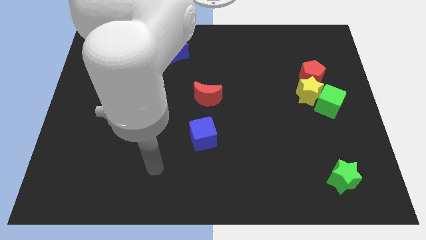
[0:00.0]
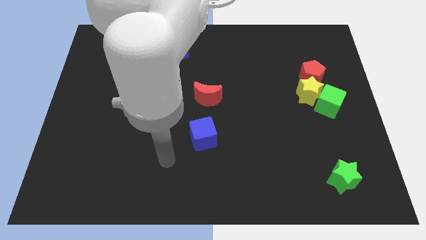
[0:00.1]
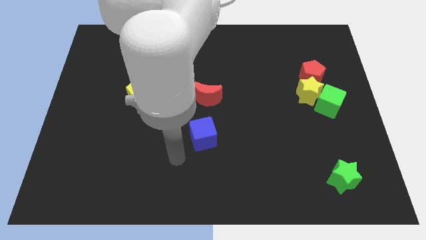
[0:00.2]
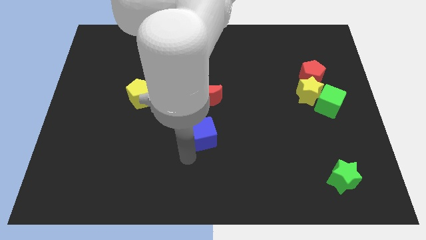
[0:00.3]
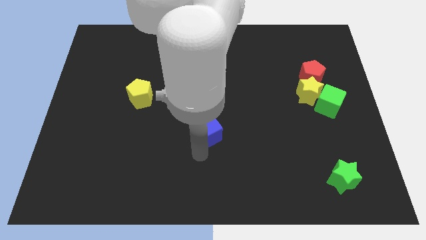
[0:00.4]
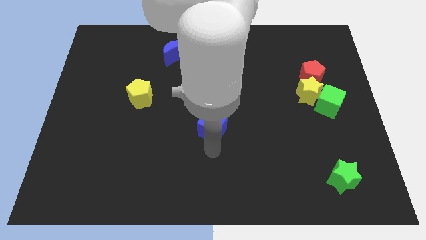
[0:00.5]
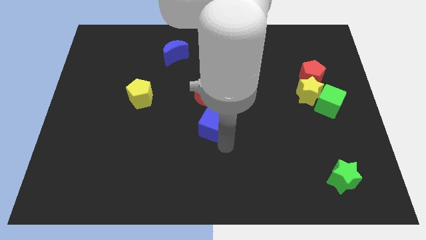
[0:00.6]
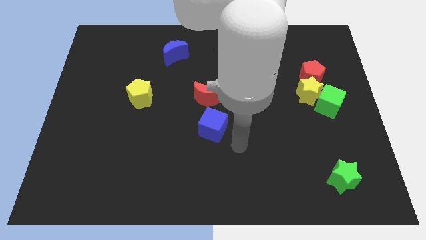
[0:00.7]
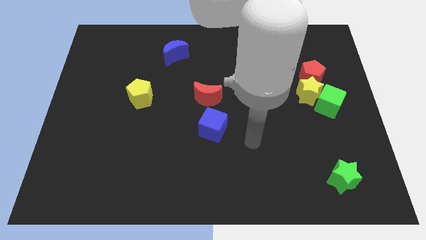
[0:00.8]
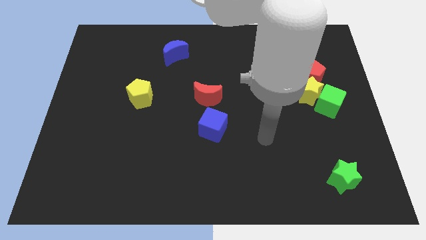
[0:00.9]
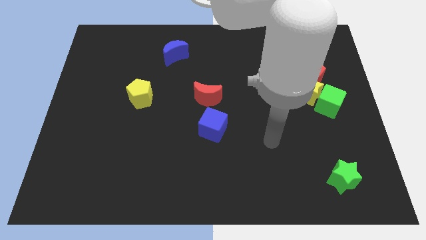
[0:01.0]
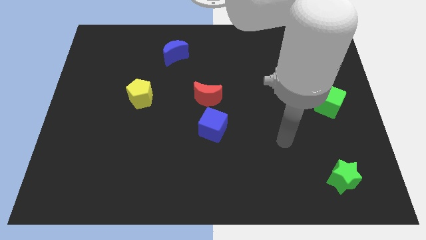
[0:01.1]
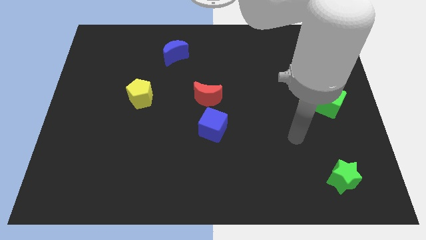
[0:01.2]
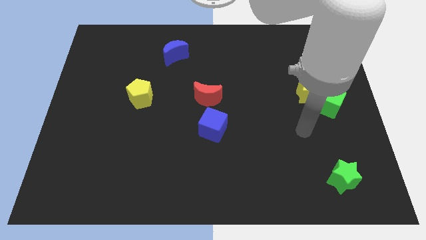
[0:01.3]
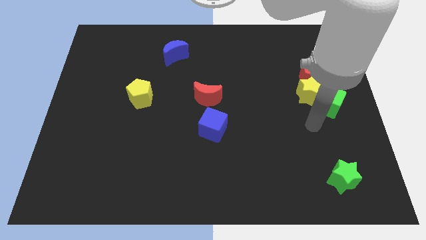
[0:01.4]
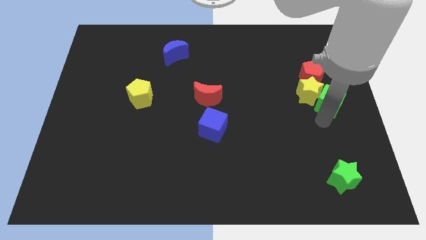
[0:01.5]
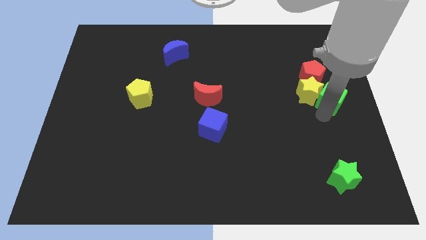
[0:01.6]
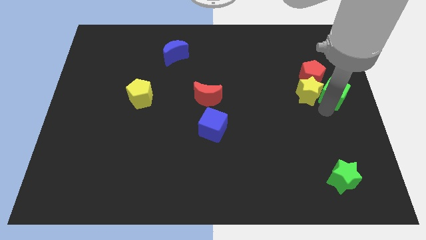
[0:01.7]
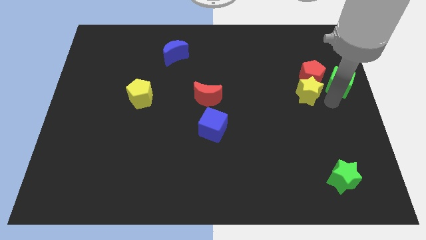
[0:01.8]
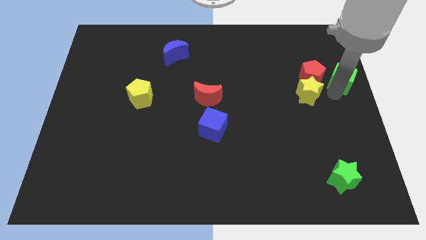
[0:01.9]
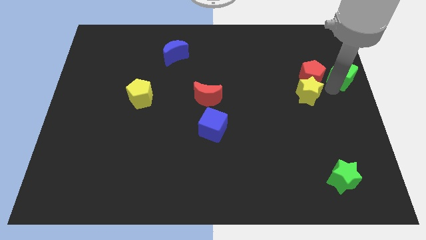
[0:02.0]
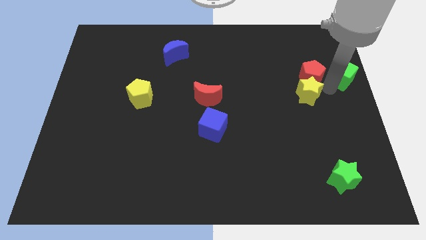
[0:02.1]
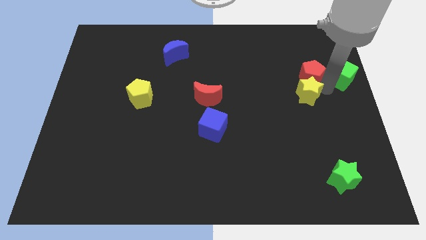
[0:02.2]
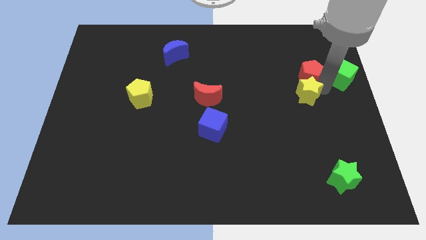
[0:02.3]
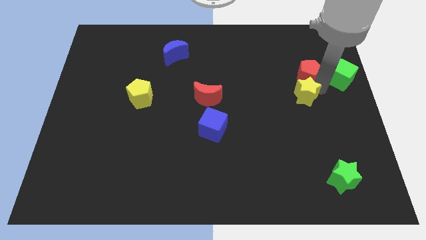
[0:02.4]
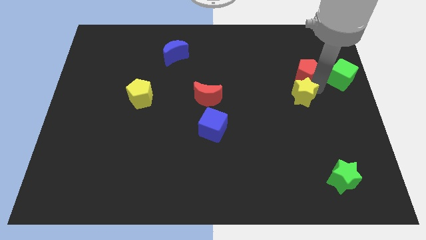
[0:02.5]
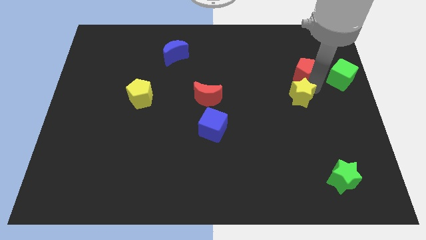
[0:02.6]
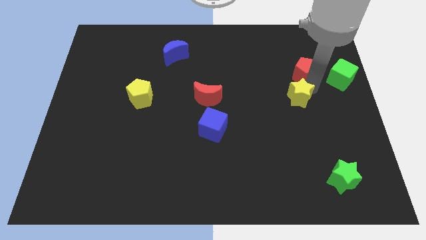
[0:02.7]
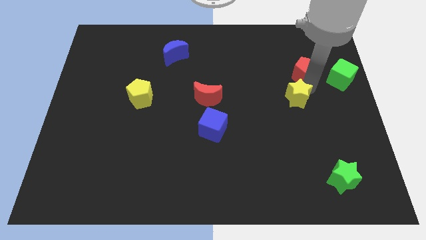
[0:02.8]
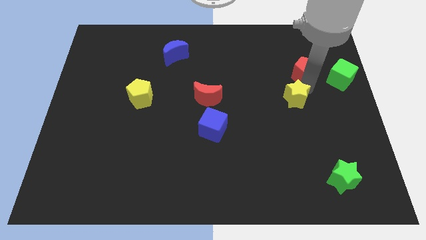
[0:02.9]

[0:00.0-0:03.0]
pull the yellow star apart from the red pentagon and green cube

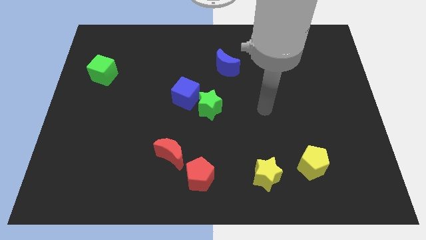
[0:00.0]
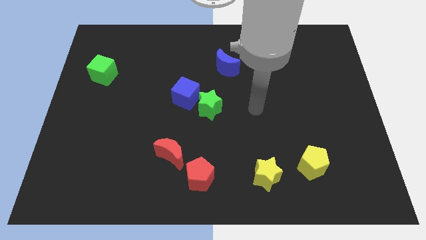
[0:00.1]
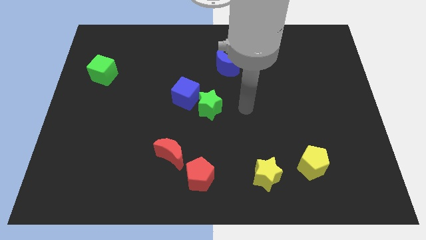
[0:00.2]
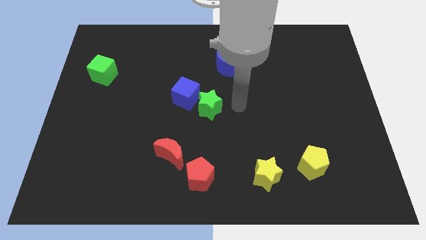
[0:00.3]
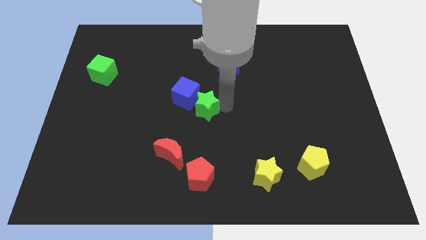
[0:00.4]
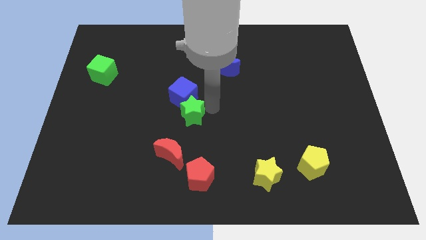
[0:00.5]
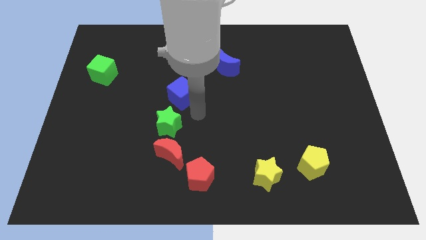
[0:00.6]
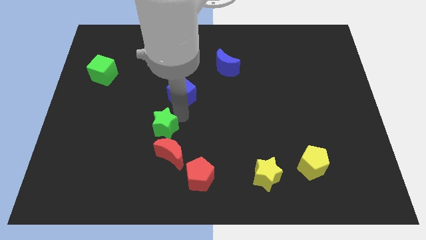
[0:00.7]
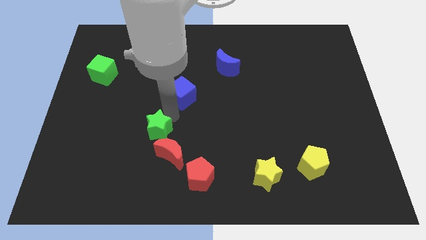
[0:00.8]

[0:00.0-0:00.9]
separate the blue cube from the green star

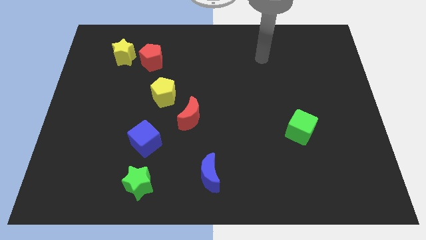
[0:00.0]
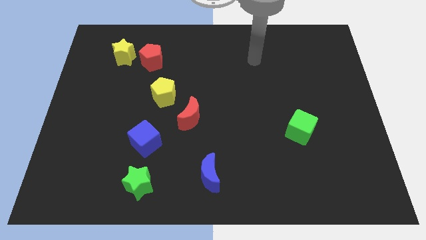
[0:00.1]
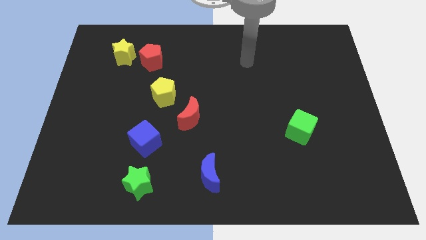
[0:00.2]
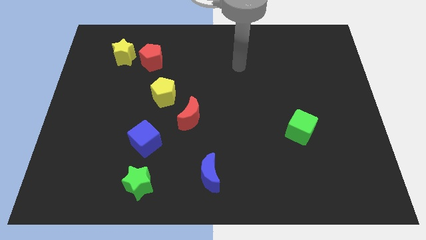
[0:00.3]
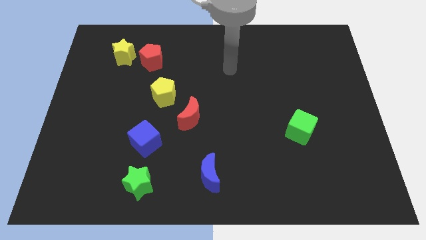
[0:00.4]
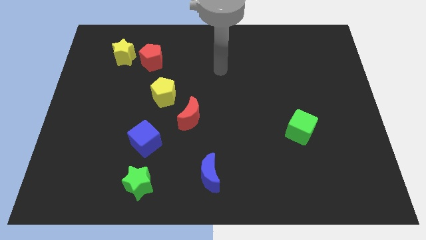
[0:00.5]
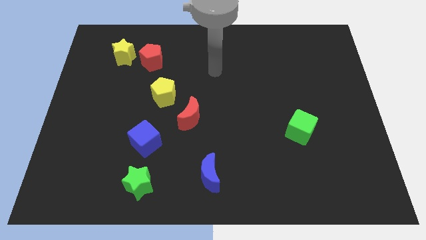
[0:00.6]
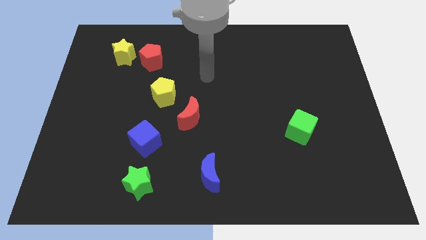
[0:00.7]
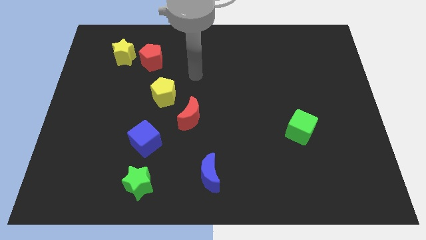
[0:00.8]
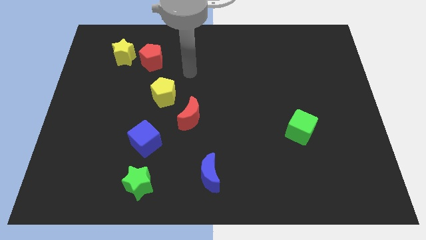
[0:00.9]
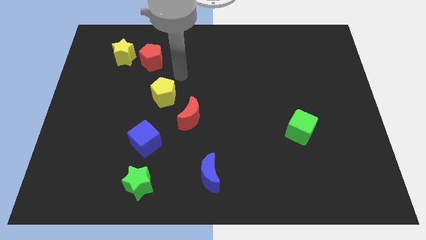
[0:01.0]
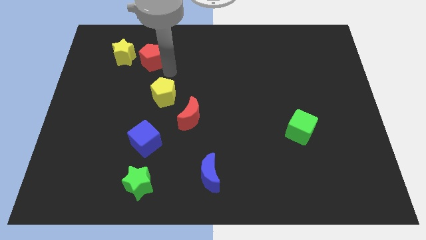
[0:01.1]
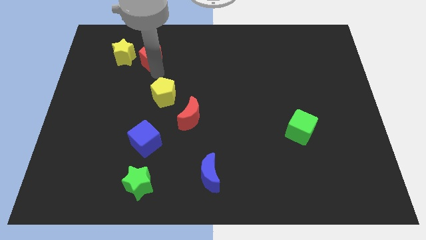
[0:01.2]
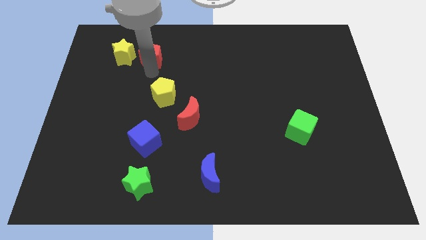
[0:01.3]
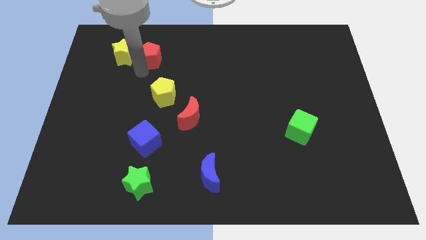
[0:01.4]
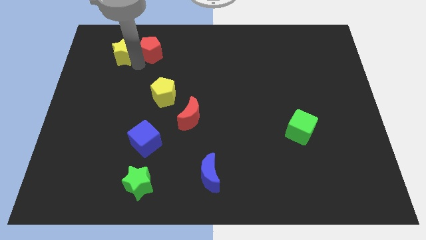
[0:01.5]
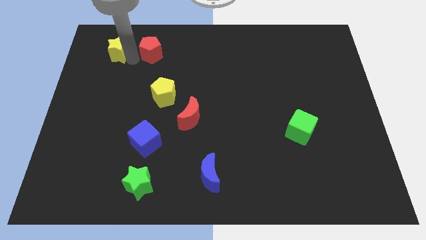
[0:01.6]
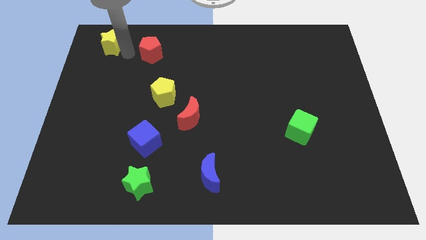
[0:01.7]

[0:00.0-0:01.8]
separate the red pentagon from the yellow star

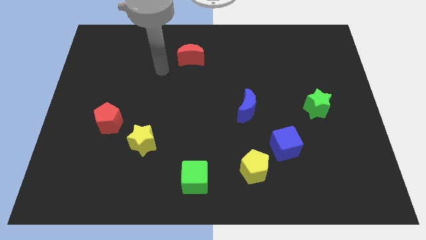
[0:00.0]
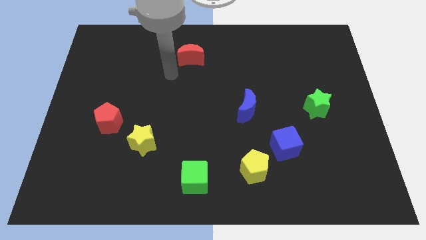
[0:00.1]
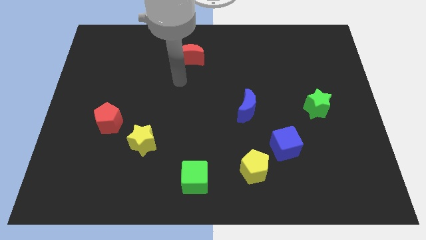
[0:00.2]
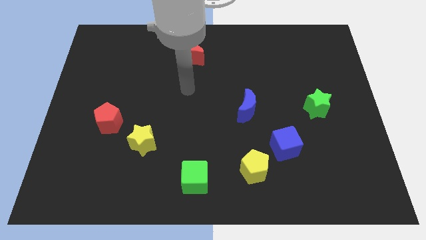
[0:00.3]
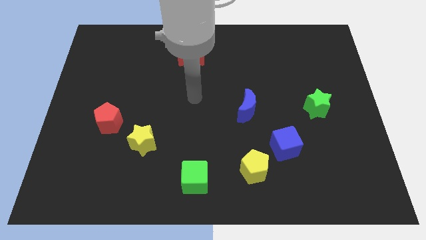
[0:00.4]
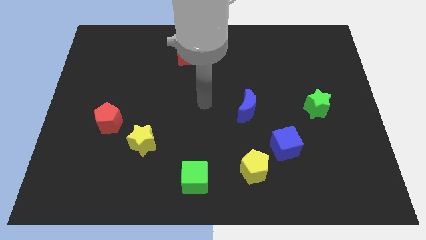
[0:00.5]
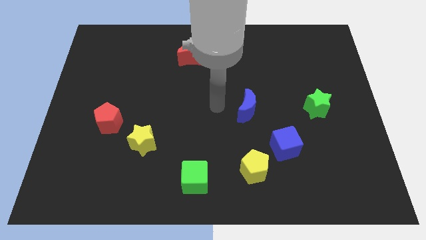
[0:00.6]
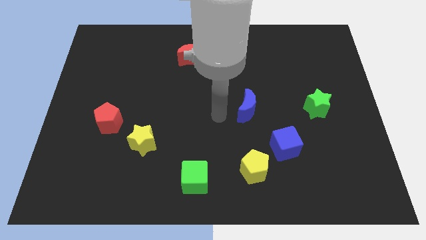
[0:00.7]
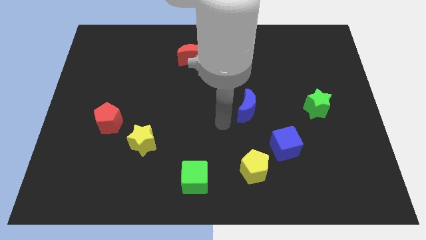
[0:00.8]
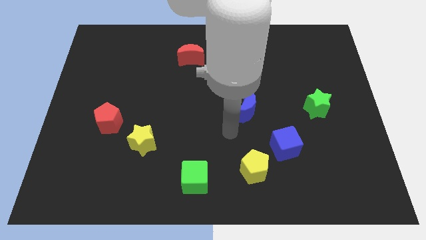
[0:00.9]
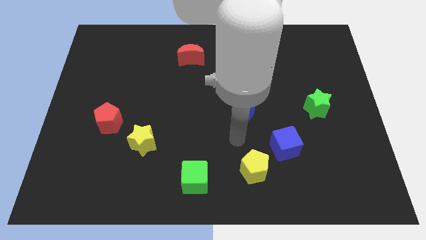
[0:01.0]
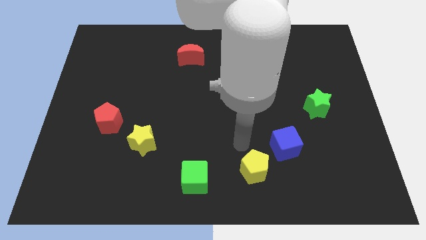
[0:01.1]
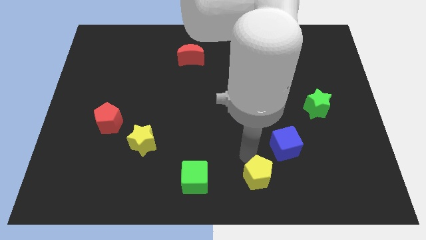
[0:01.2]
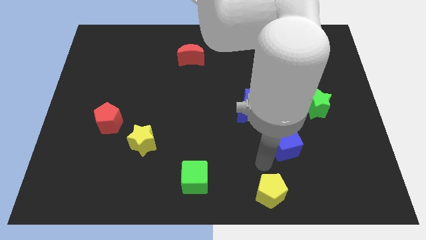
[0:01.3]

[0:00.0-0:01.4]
separate the blue cube from the yellow pentagon

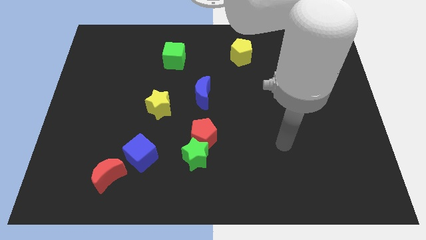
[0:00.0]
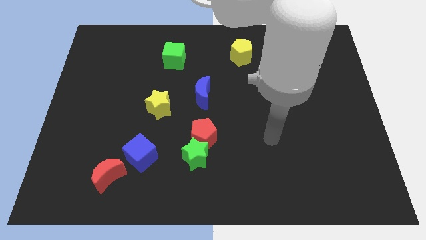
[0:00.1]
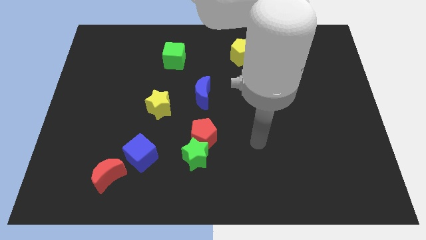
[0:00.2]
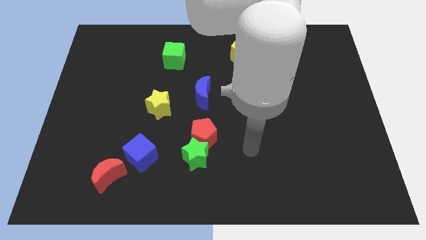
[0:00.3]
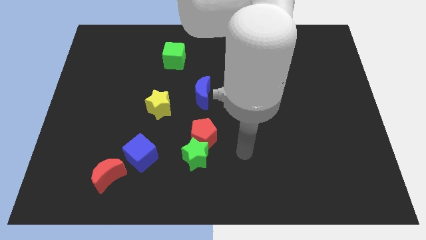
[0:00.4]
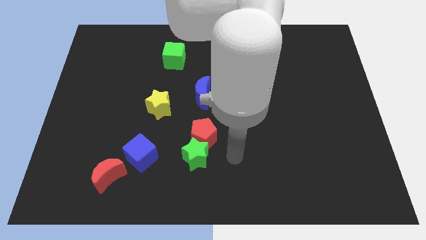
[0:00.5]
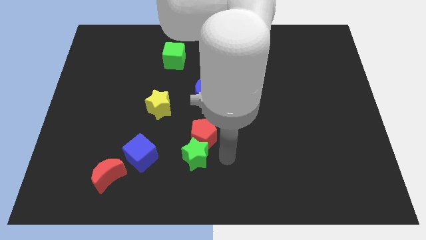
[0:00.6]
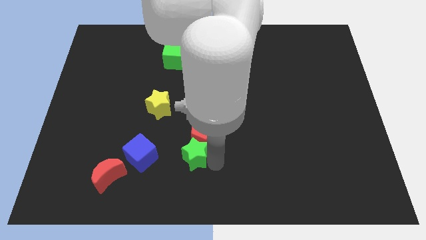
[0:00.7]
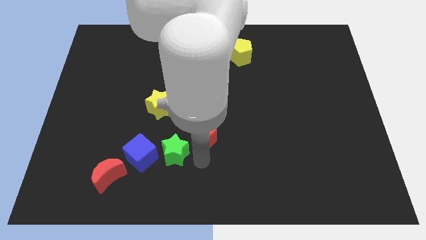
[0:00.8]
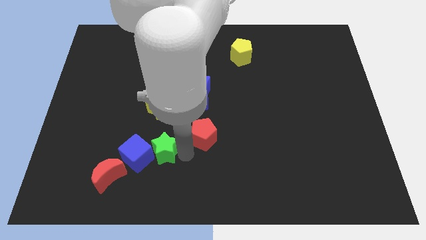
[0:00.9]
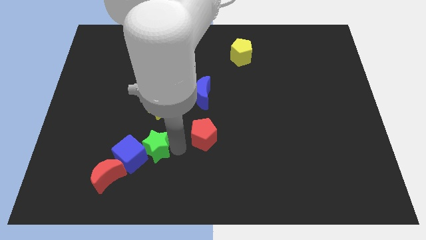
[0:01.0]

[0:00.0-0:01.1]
move the red pentagon away from the green star

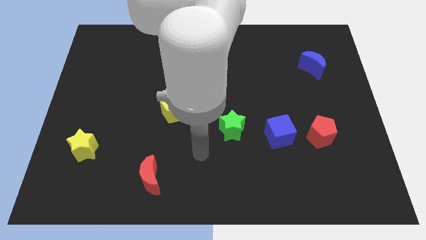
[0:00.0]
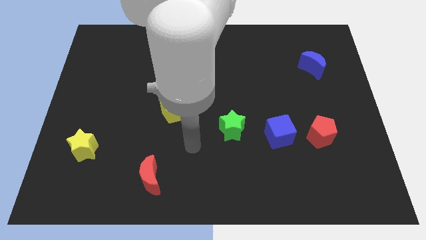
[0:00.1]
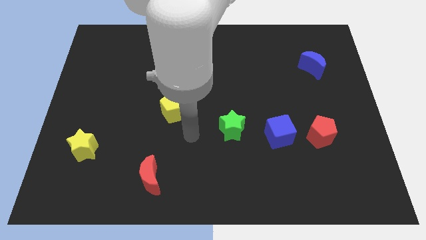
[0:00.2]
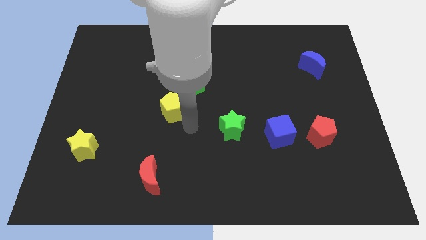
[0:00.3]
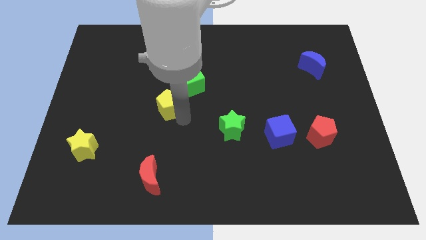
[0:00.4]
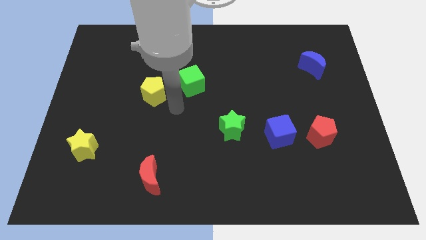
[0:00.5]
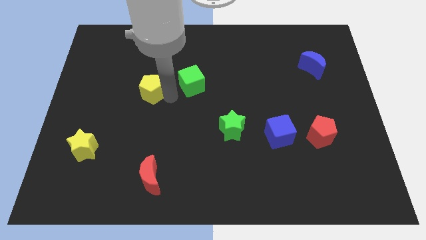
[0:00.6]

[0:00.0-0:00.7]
pull the green cube apart from the yellow pentagon

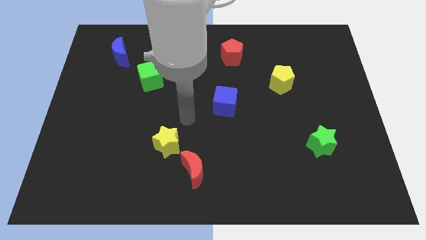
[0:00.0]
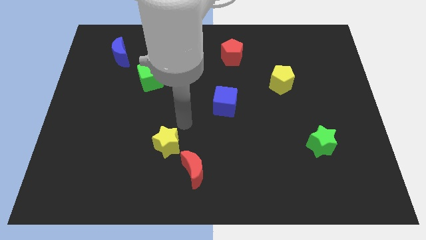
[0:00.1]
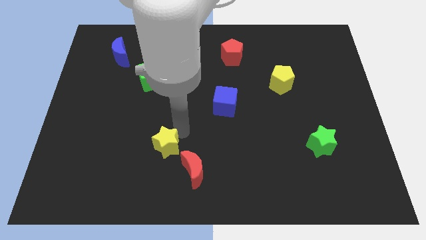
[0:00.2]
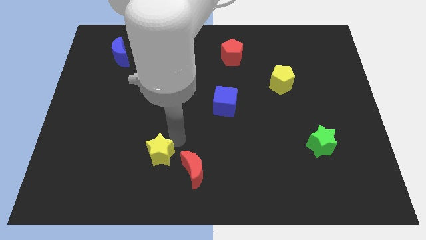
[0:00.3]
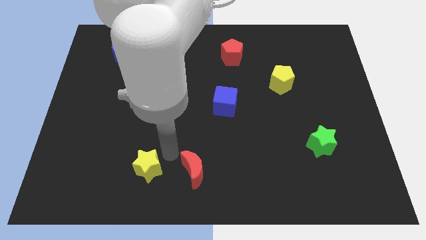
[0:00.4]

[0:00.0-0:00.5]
pull the red moon apart from the yellow star
